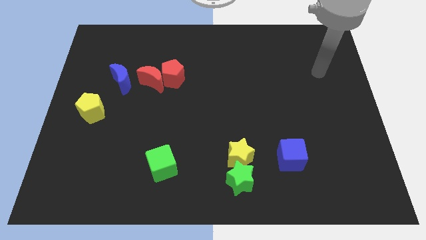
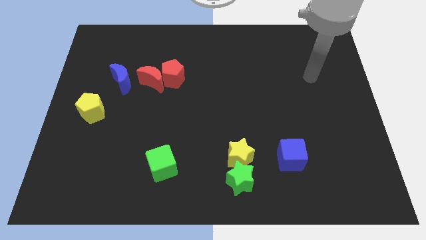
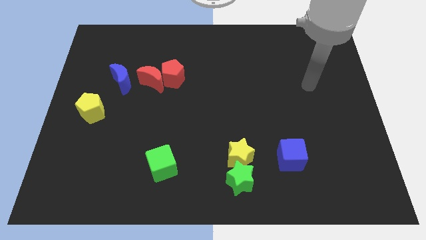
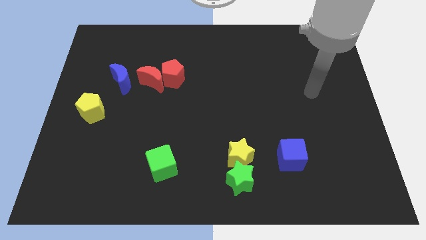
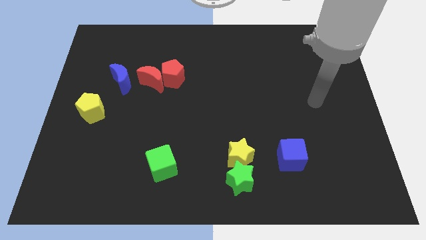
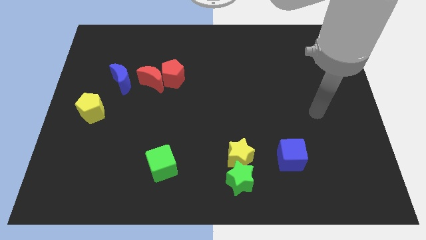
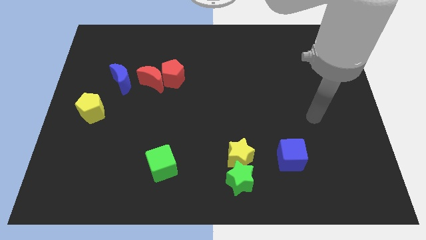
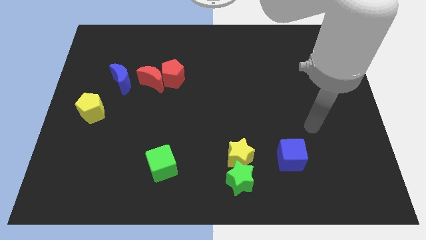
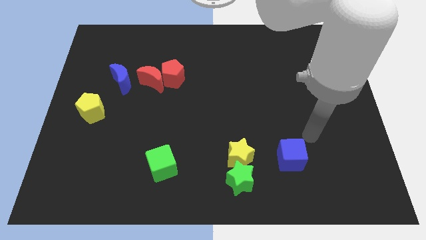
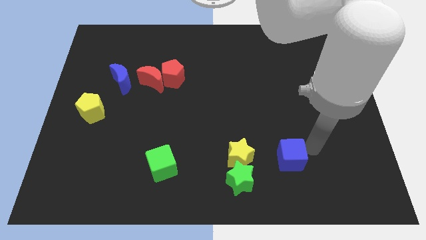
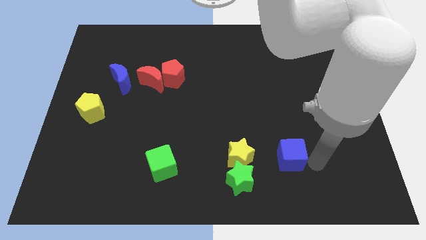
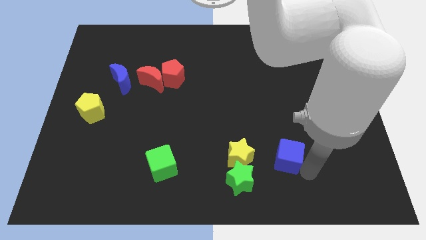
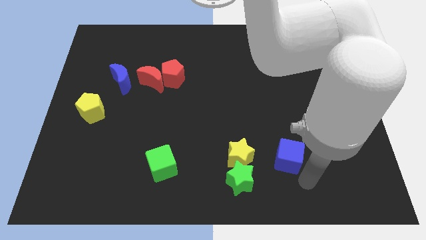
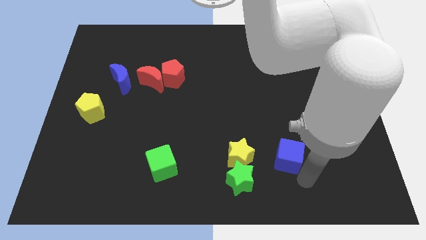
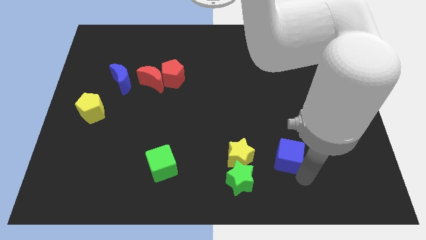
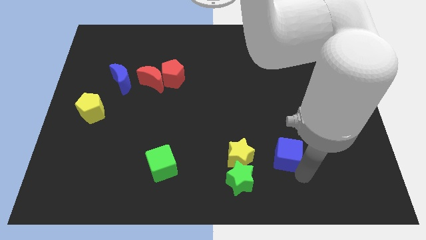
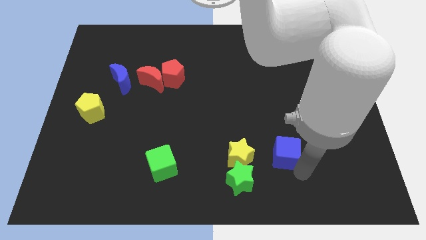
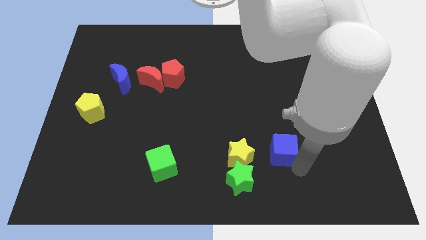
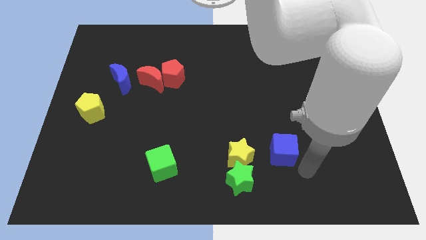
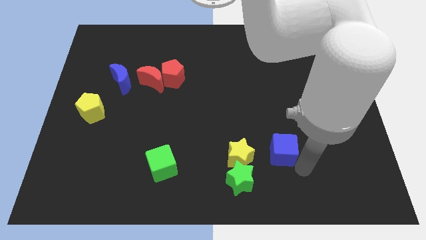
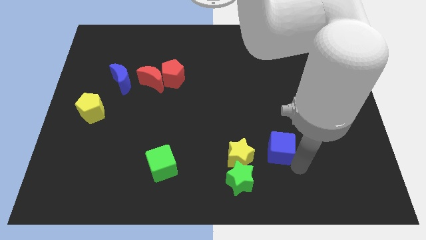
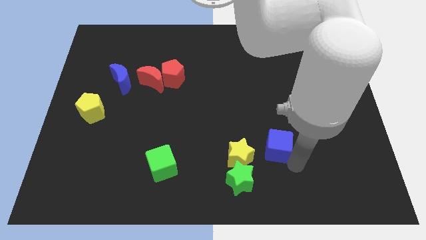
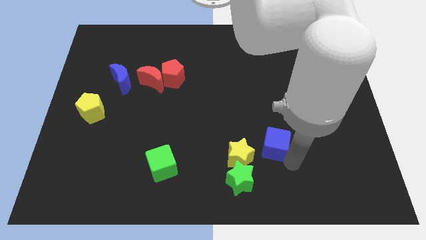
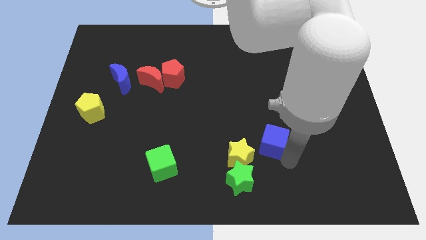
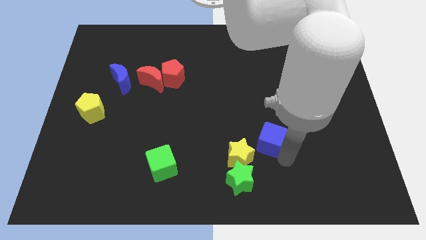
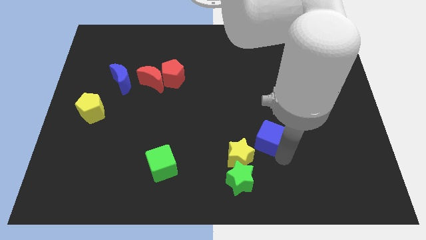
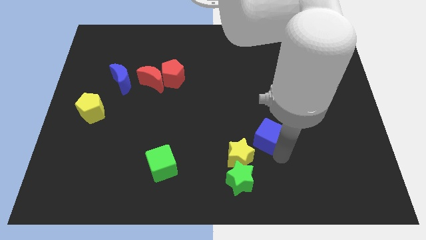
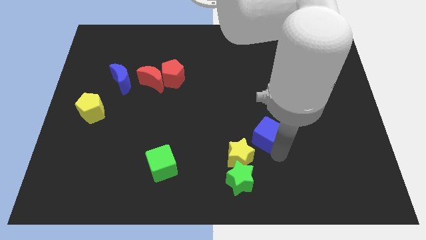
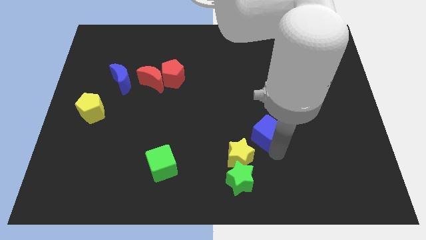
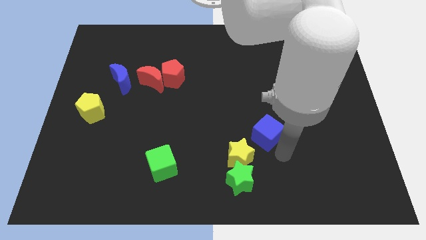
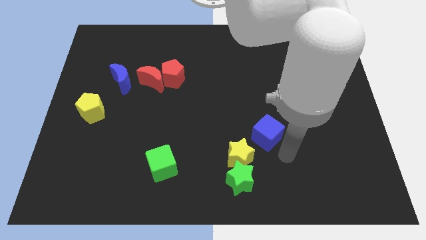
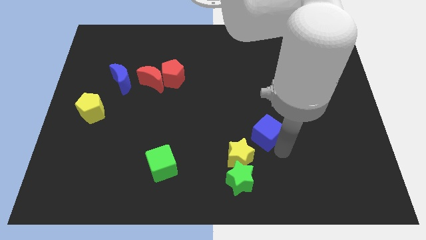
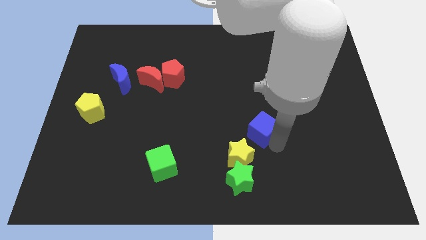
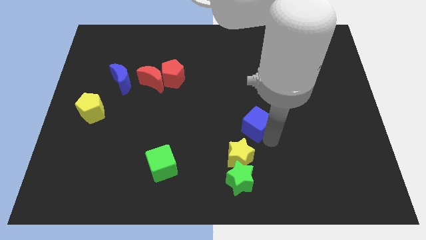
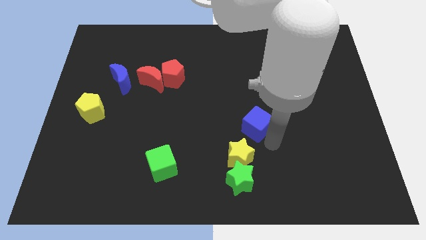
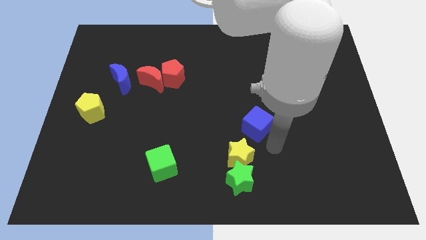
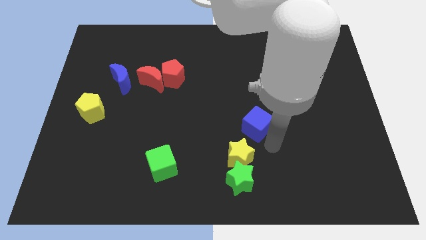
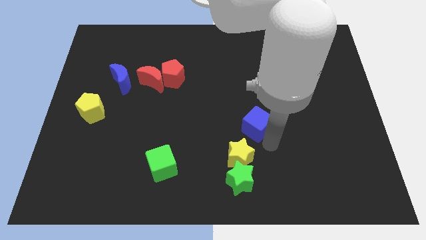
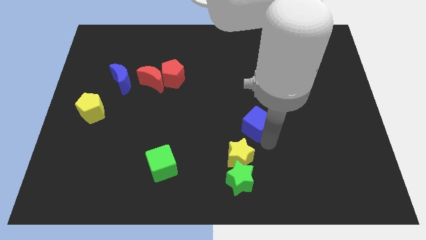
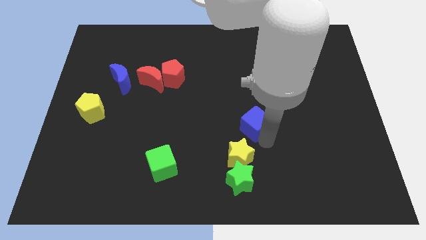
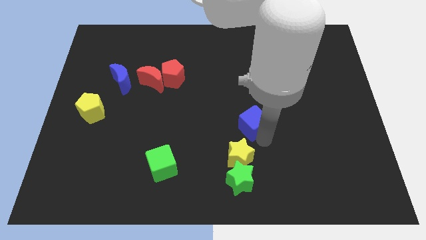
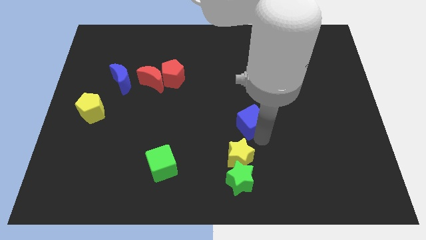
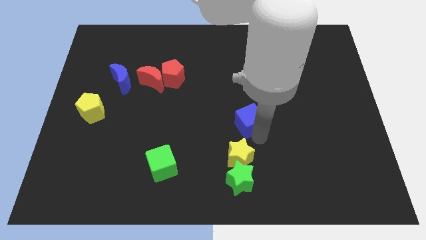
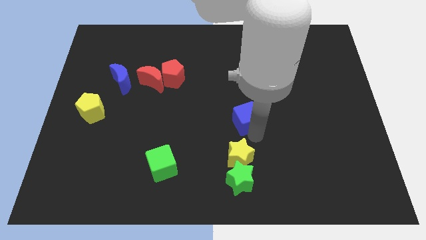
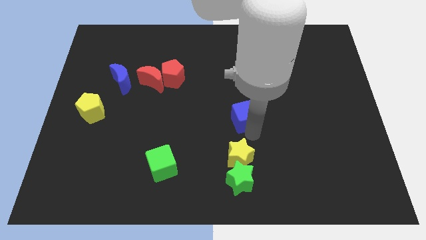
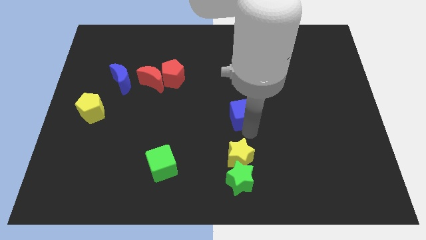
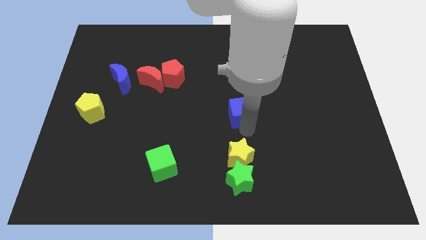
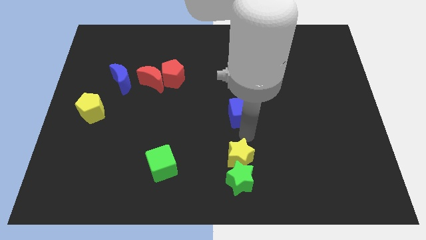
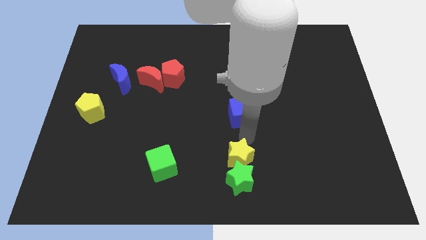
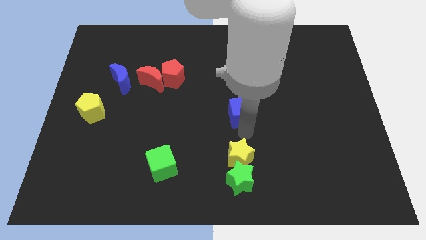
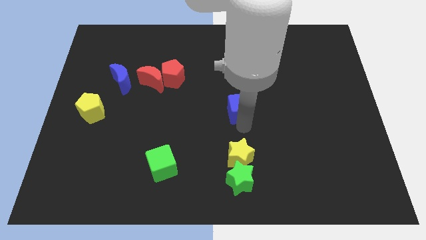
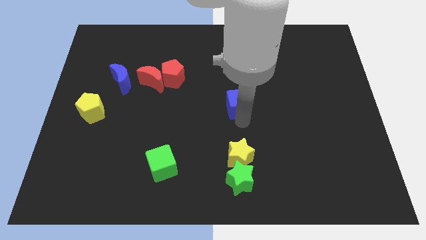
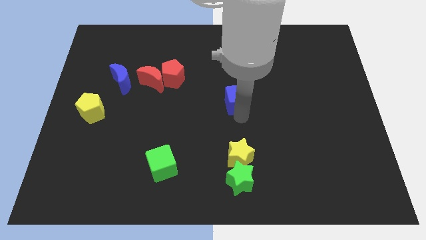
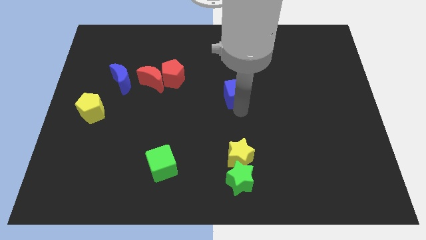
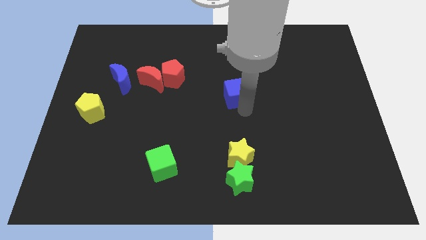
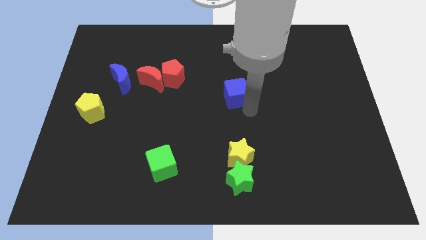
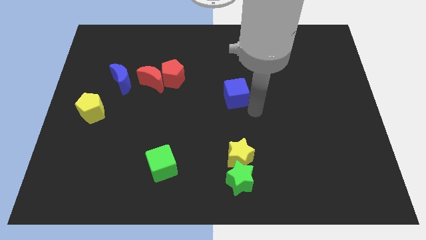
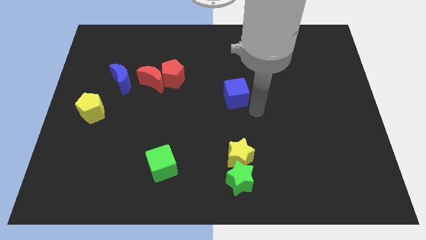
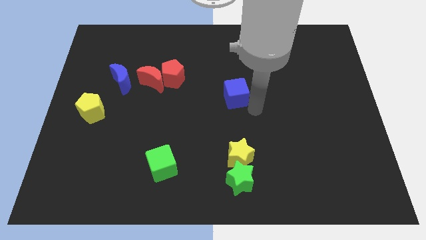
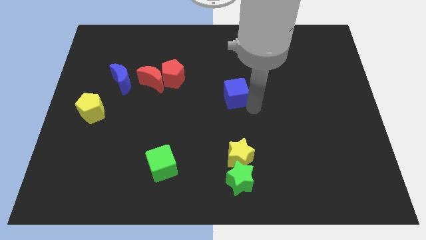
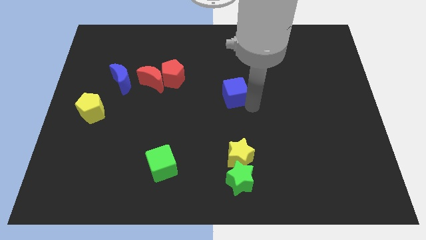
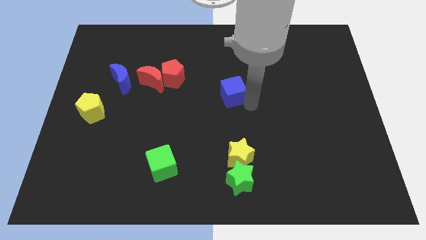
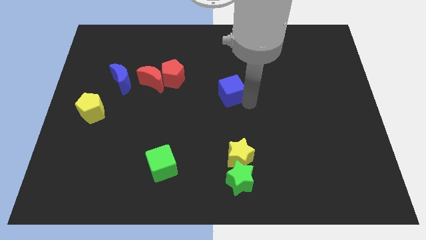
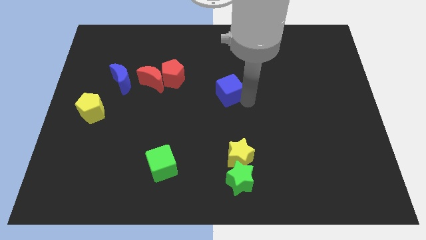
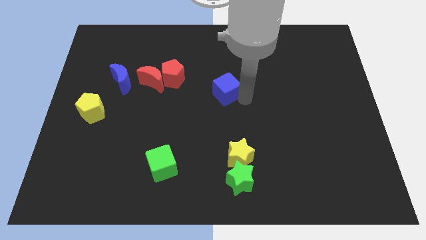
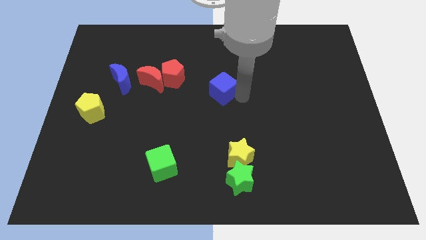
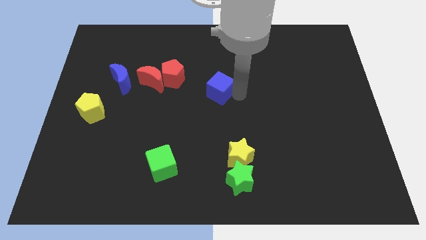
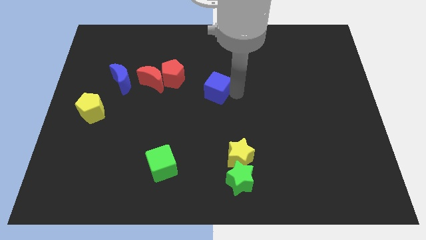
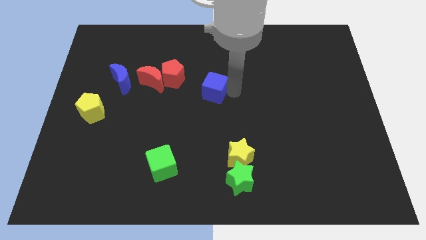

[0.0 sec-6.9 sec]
slide the blue cube to the right side of the red moon

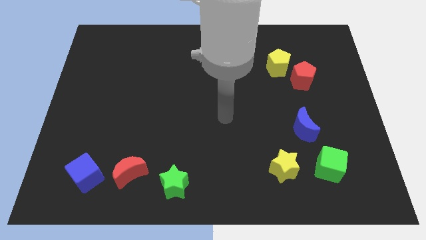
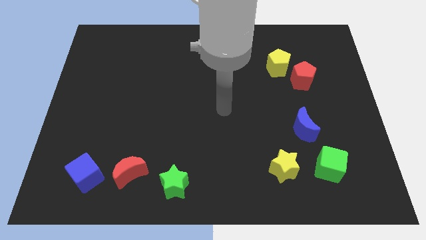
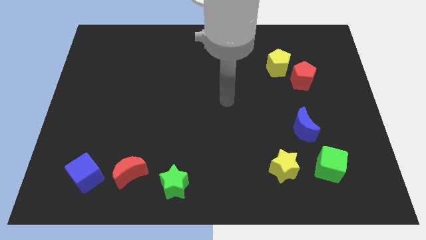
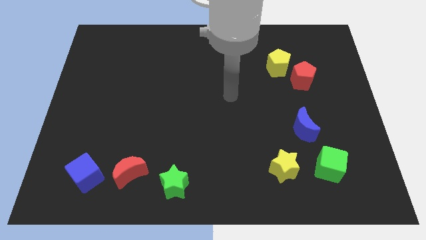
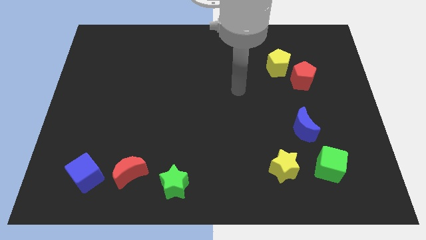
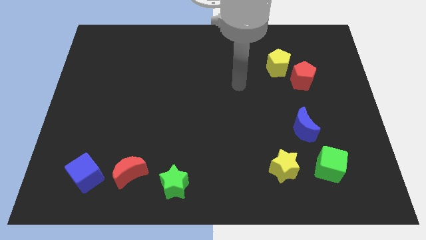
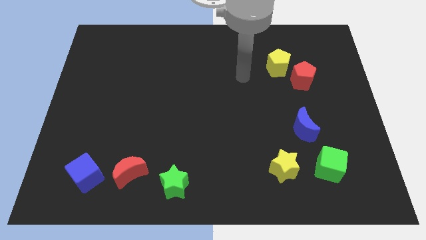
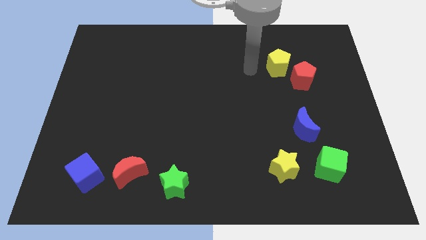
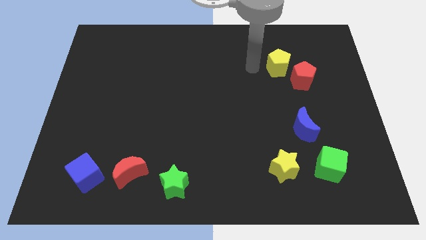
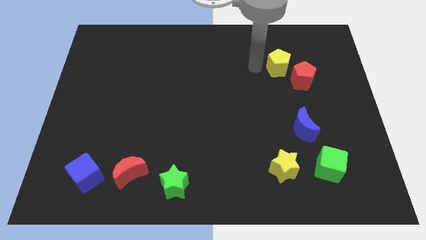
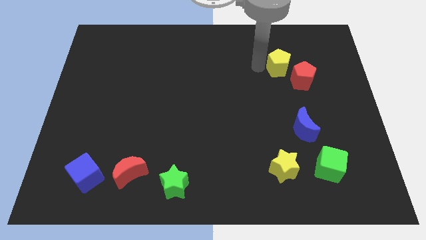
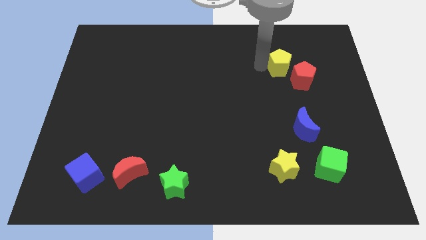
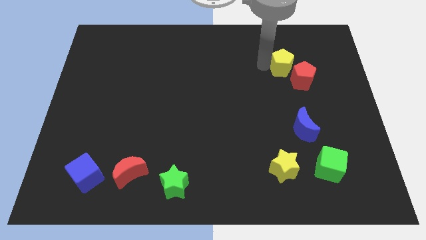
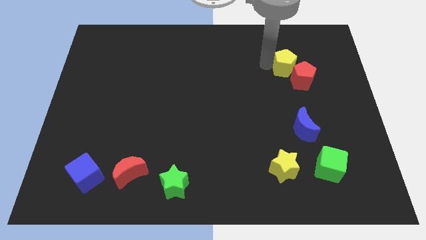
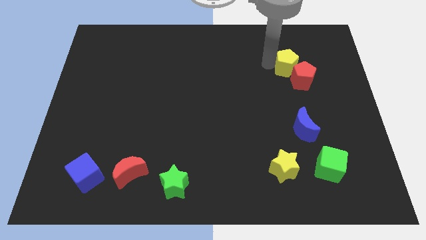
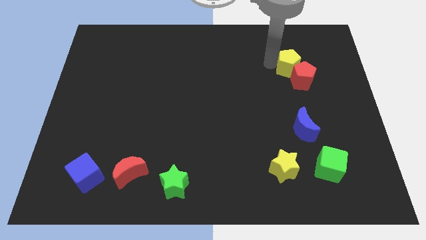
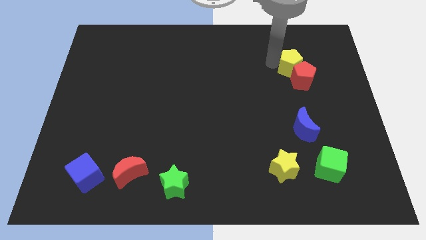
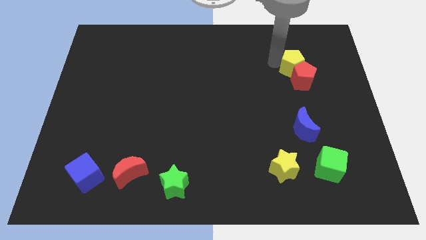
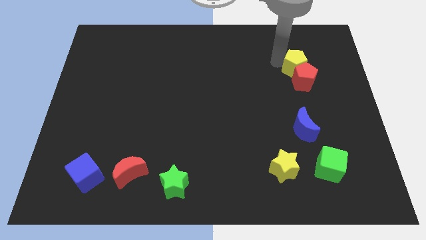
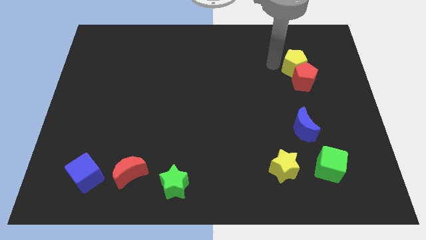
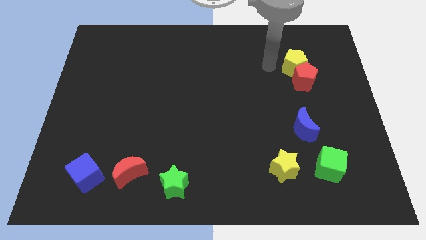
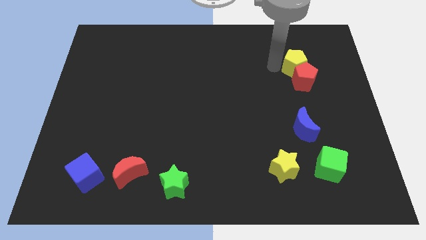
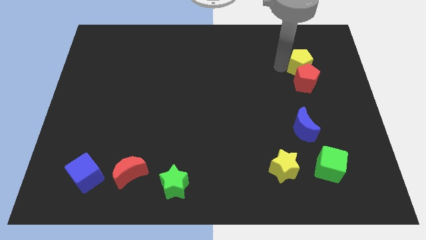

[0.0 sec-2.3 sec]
put the yellow pentagon to the top right side of the red pentagon
